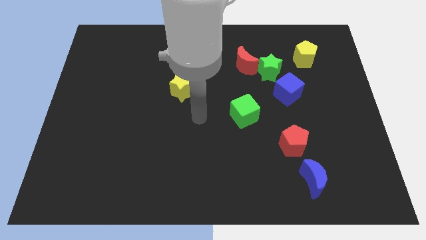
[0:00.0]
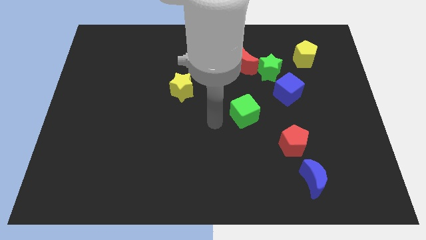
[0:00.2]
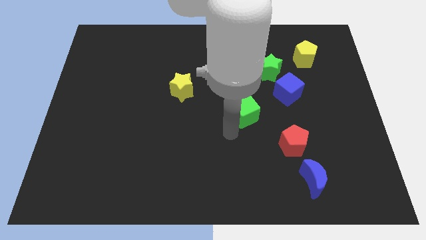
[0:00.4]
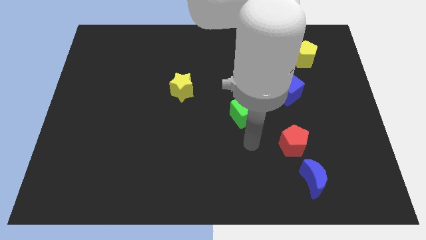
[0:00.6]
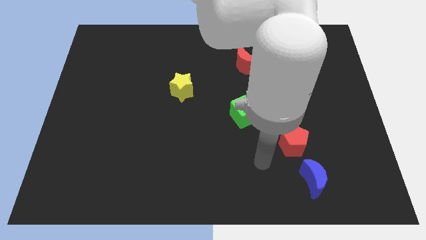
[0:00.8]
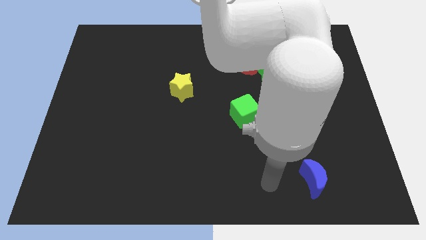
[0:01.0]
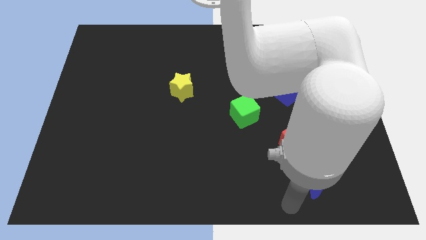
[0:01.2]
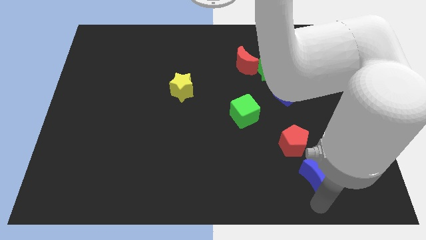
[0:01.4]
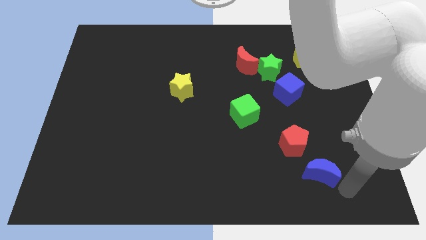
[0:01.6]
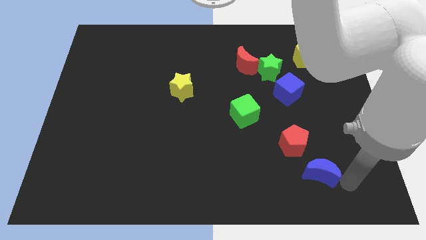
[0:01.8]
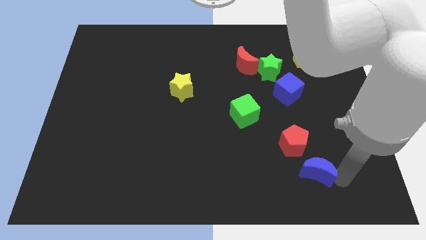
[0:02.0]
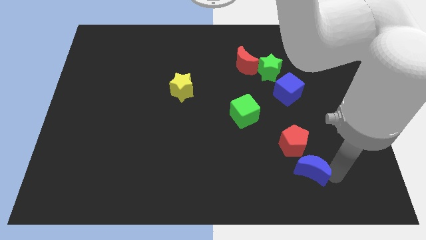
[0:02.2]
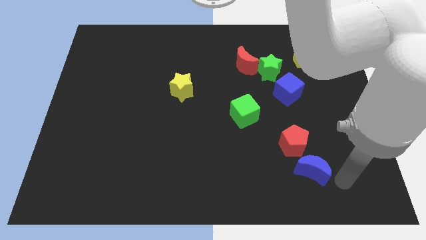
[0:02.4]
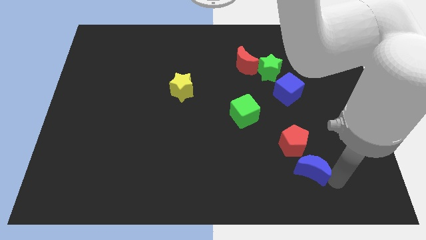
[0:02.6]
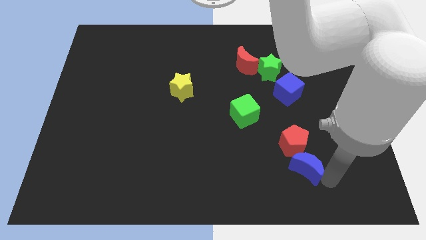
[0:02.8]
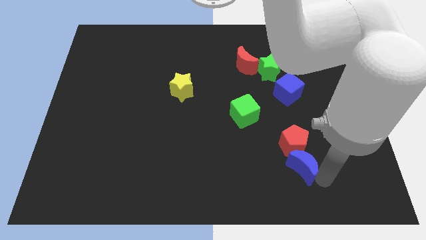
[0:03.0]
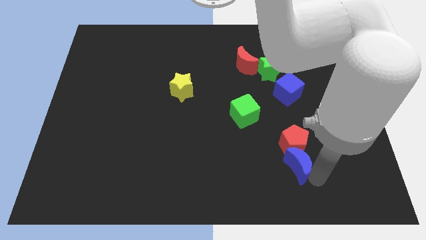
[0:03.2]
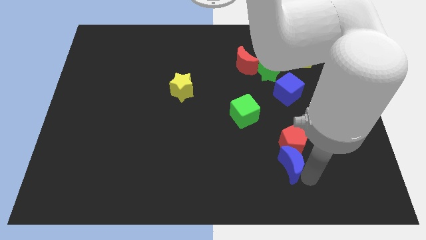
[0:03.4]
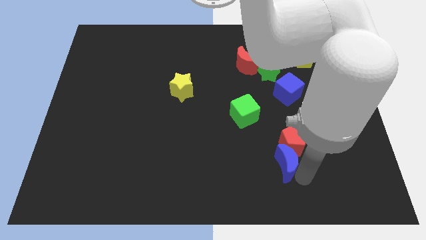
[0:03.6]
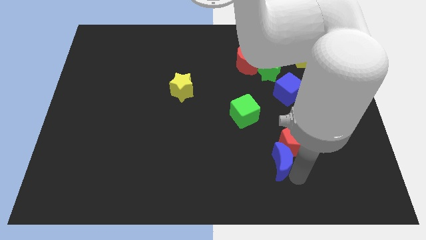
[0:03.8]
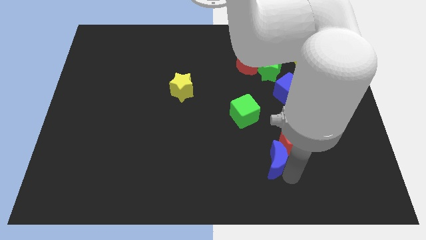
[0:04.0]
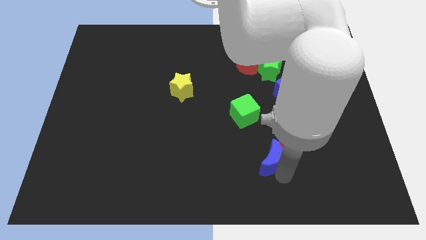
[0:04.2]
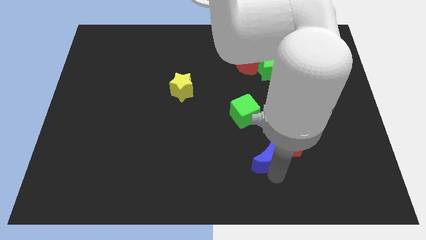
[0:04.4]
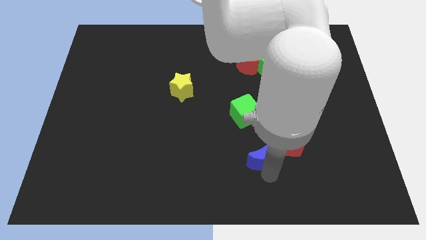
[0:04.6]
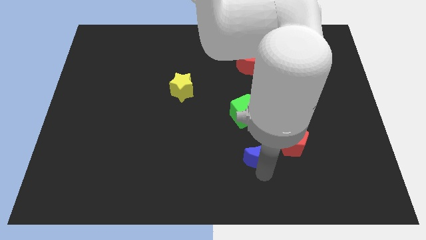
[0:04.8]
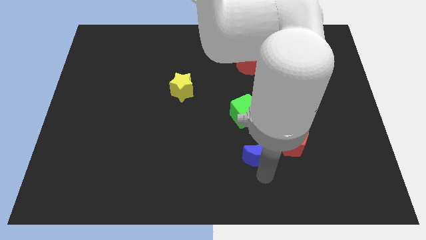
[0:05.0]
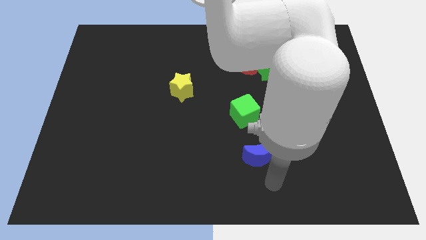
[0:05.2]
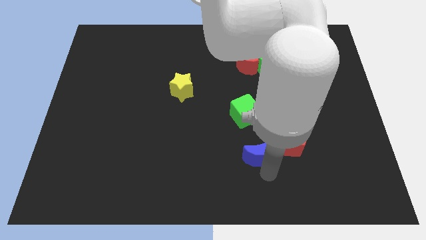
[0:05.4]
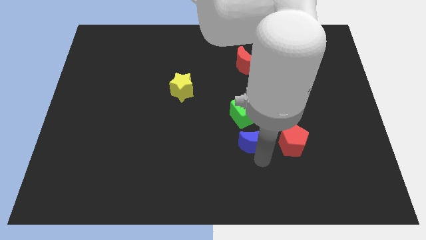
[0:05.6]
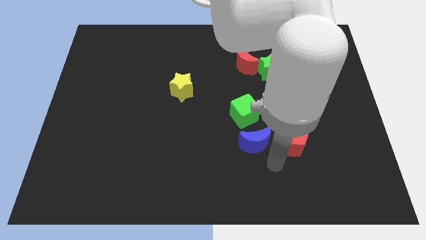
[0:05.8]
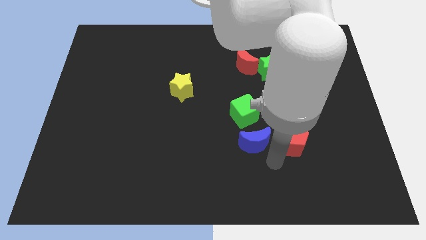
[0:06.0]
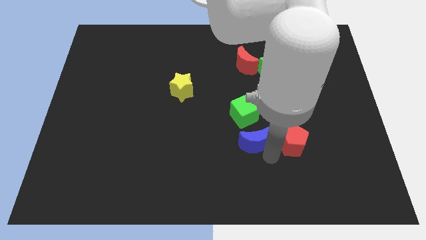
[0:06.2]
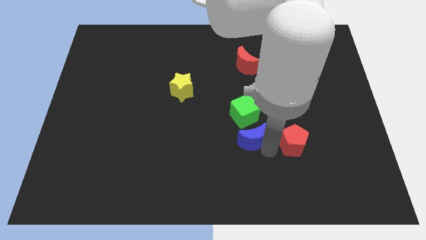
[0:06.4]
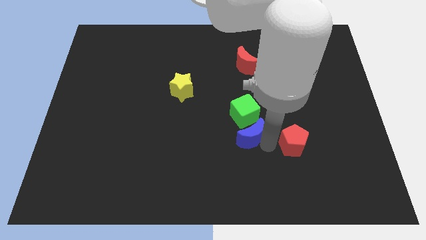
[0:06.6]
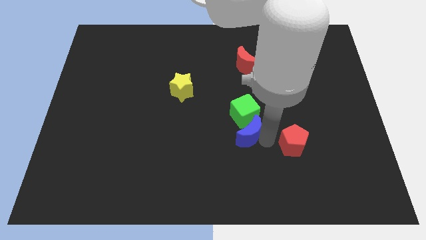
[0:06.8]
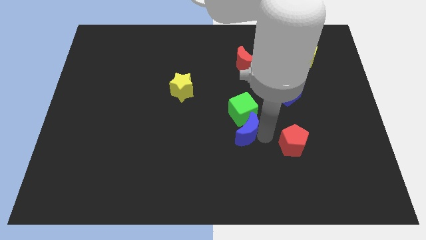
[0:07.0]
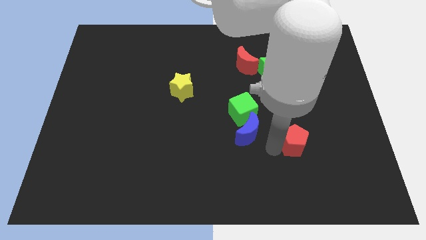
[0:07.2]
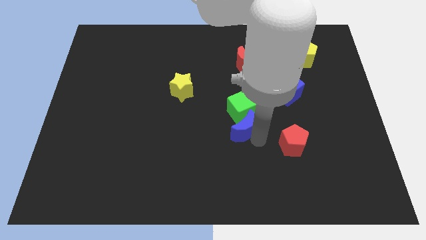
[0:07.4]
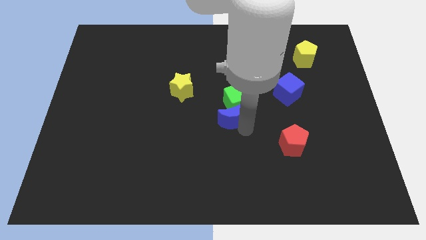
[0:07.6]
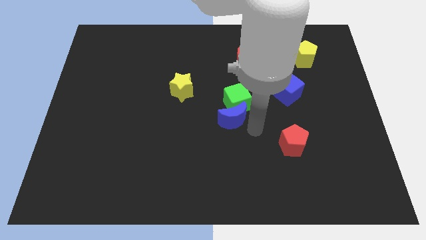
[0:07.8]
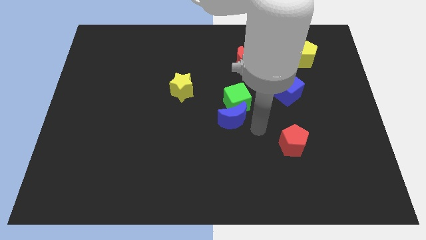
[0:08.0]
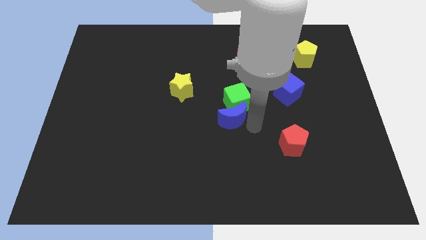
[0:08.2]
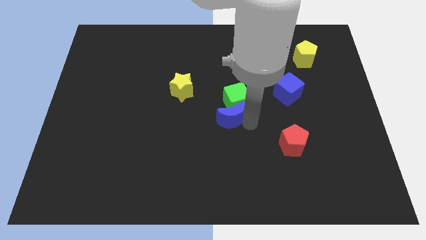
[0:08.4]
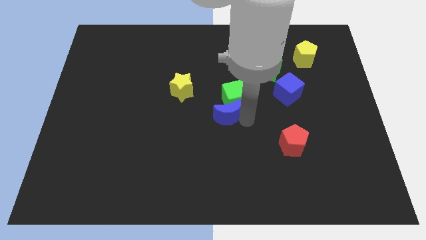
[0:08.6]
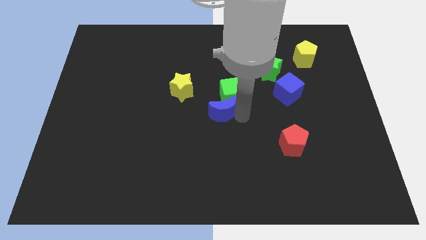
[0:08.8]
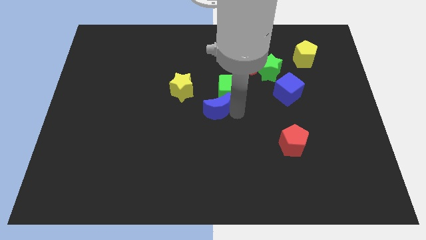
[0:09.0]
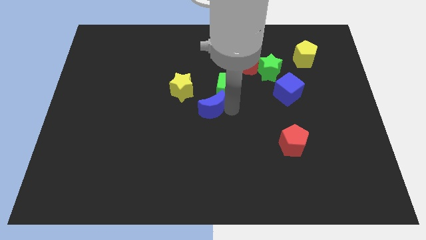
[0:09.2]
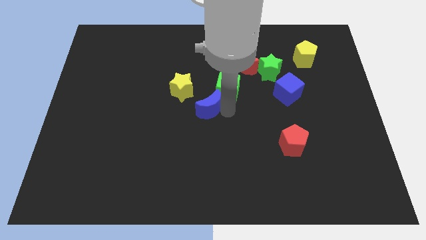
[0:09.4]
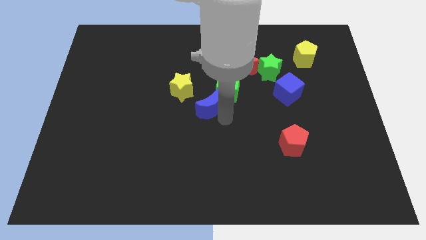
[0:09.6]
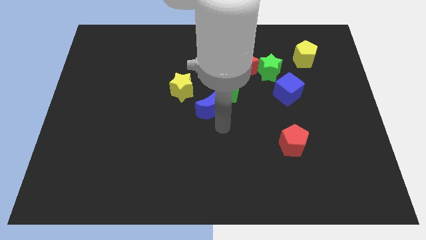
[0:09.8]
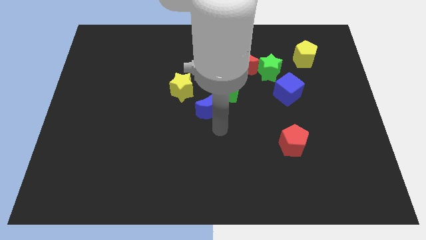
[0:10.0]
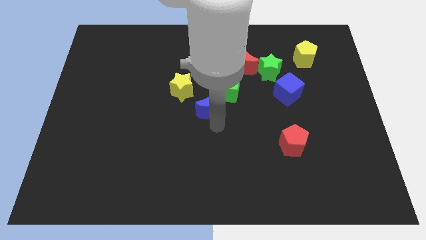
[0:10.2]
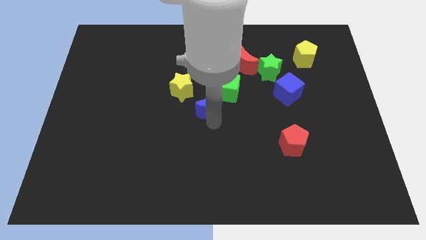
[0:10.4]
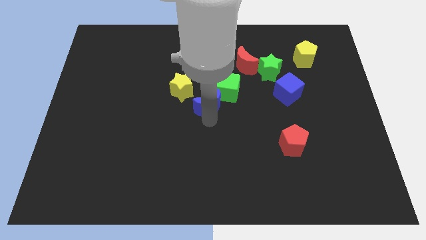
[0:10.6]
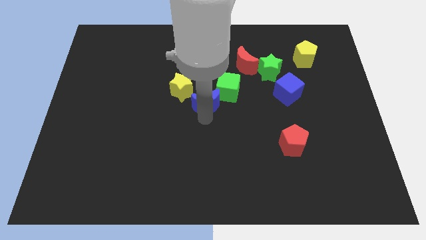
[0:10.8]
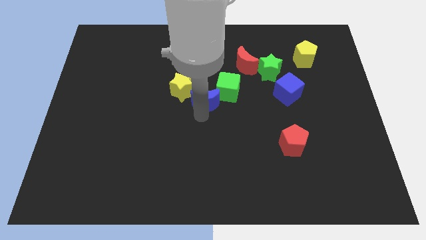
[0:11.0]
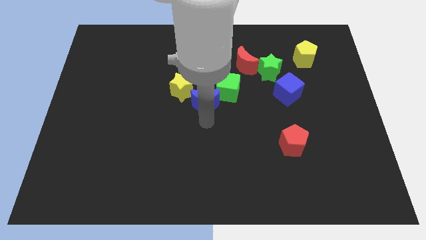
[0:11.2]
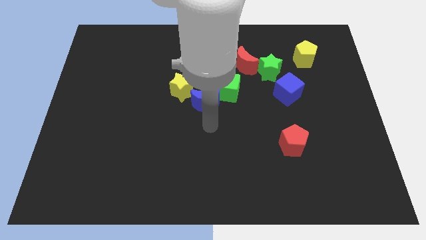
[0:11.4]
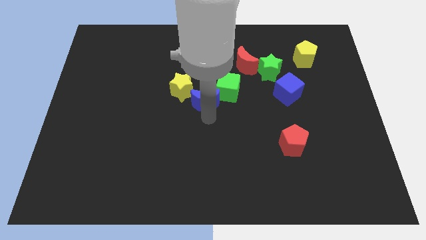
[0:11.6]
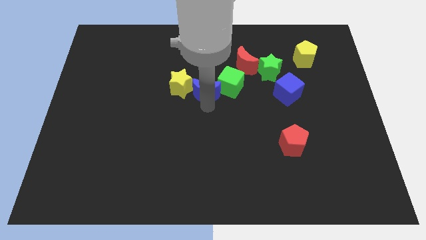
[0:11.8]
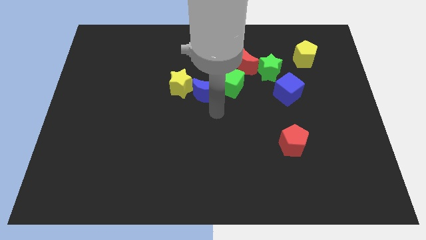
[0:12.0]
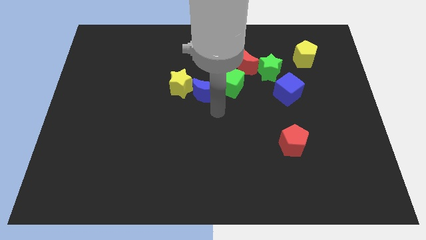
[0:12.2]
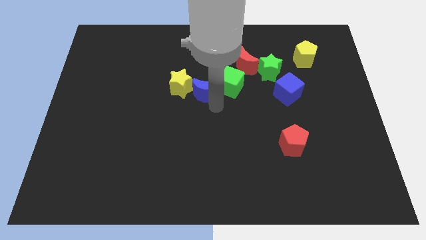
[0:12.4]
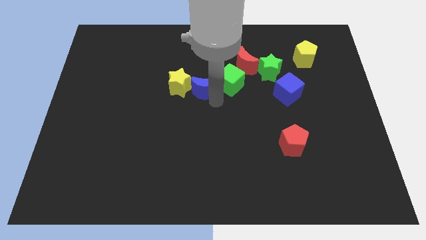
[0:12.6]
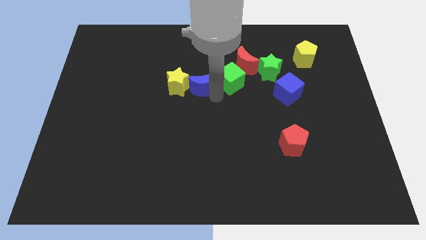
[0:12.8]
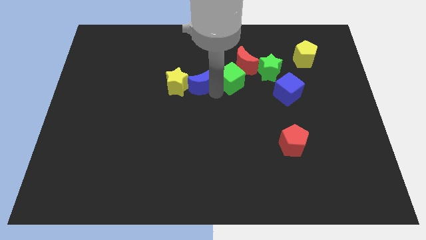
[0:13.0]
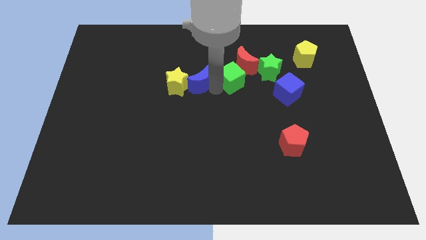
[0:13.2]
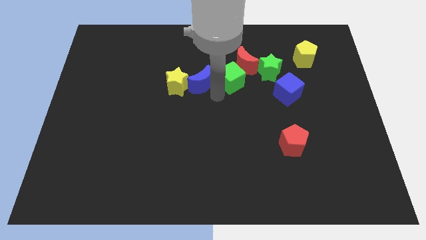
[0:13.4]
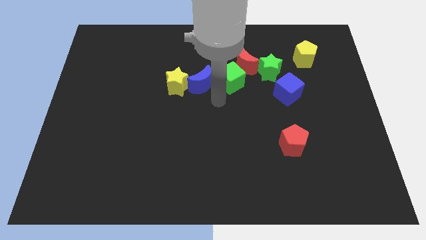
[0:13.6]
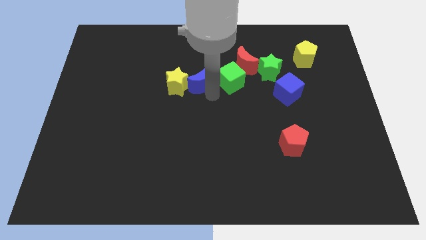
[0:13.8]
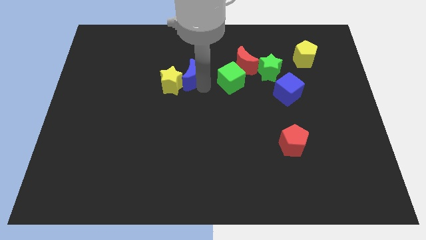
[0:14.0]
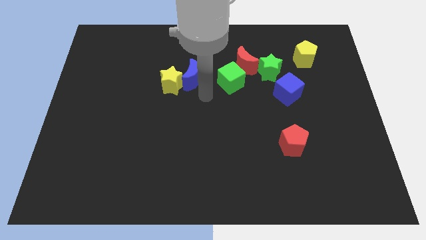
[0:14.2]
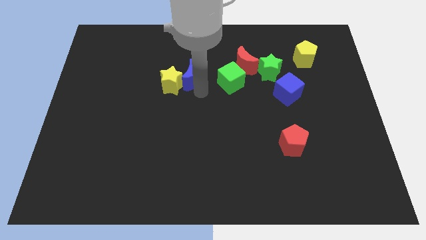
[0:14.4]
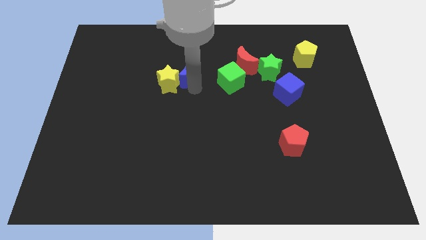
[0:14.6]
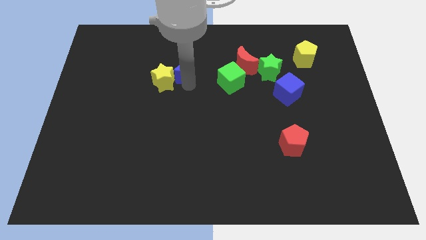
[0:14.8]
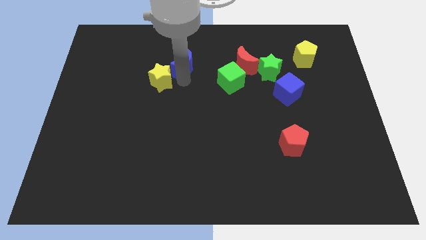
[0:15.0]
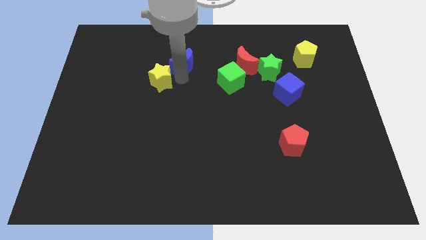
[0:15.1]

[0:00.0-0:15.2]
slide the blue moon to the top of the yellow star

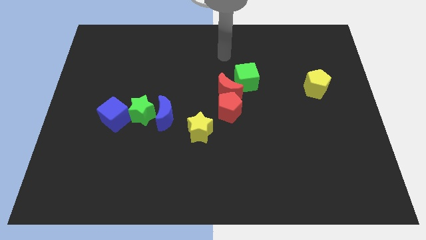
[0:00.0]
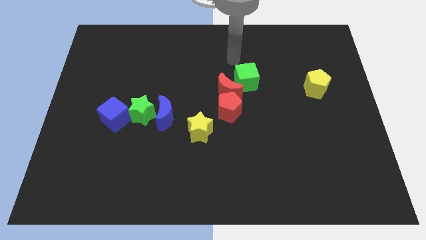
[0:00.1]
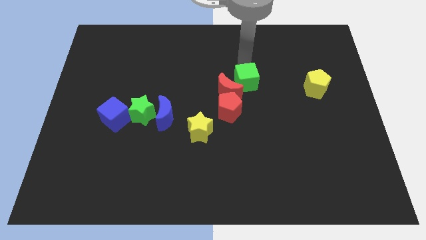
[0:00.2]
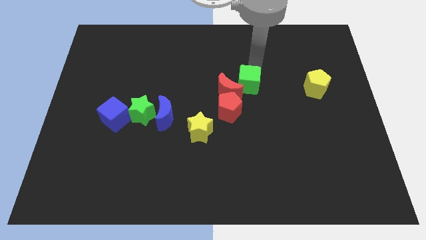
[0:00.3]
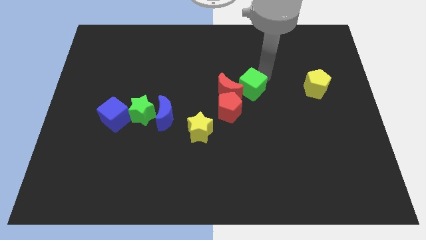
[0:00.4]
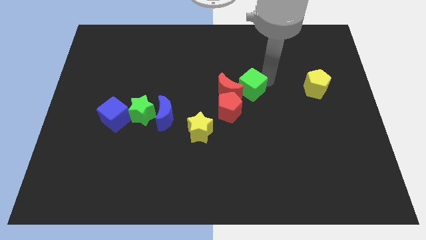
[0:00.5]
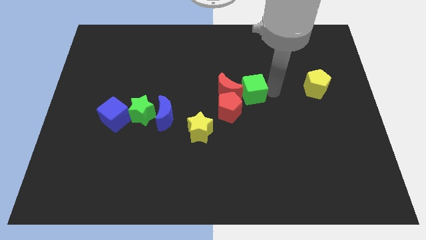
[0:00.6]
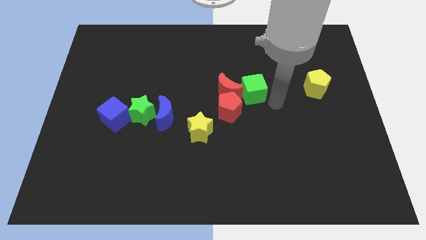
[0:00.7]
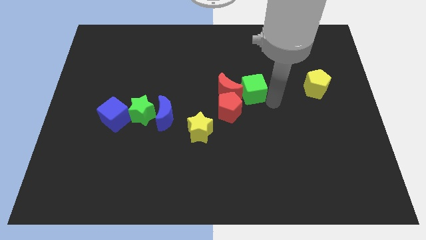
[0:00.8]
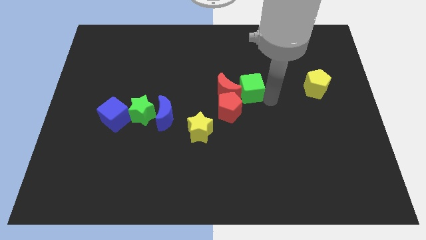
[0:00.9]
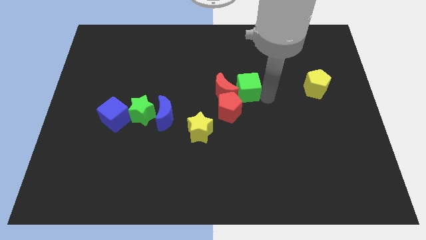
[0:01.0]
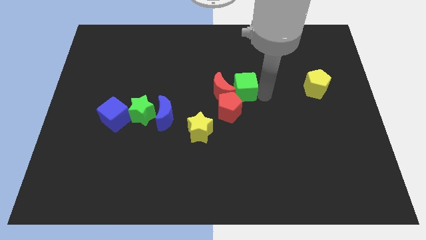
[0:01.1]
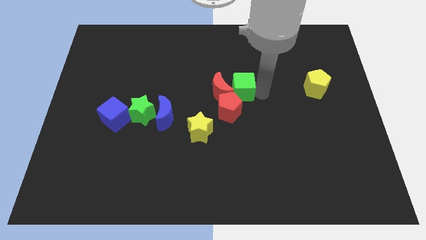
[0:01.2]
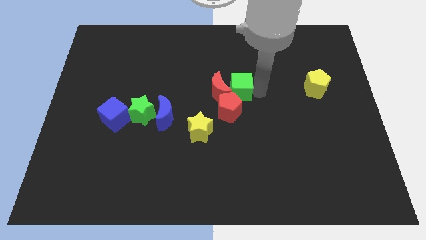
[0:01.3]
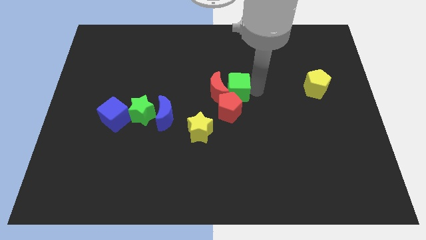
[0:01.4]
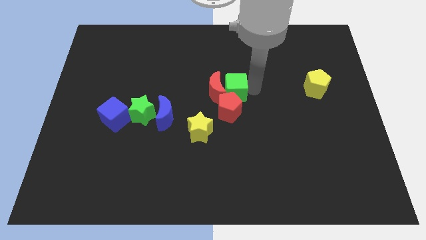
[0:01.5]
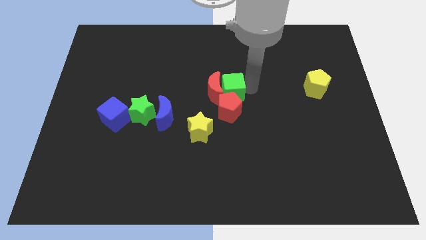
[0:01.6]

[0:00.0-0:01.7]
put the green cube to the top left side of the red pentagon
